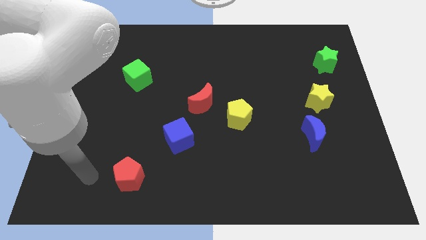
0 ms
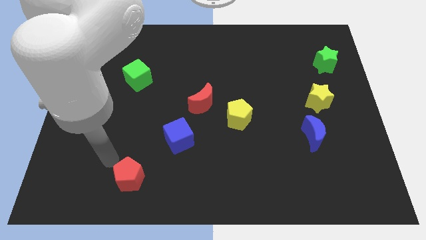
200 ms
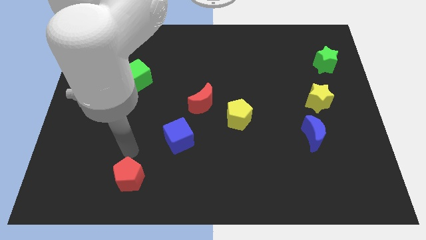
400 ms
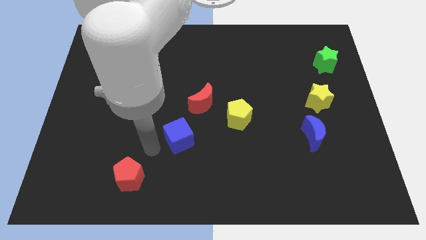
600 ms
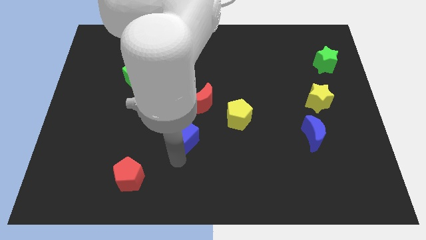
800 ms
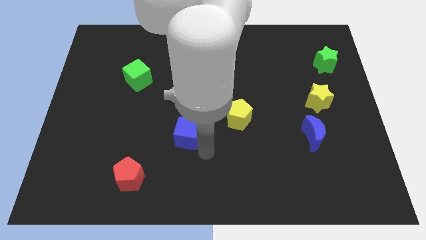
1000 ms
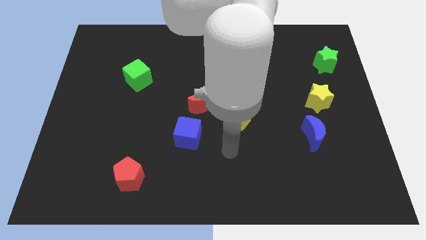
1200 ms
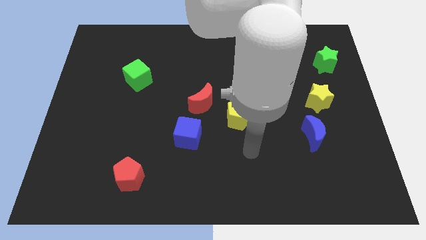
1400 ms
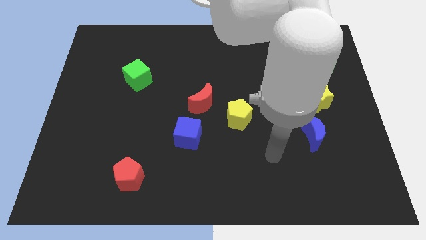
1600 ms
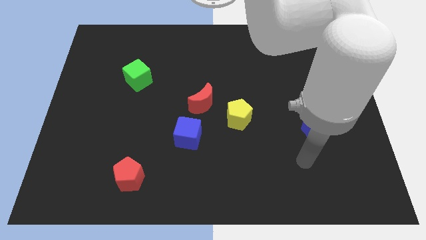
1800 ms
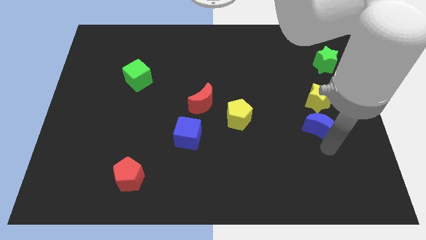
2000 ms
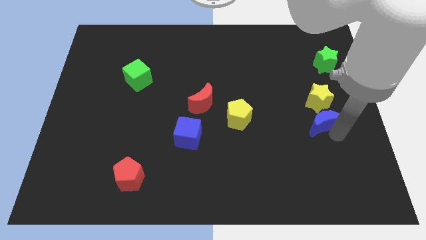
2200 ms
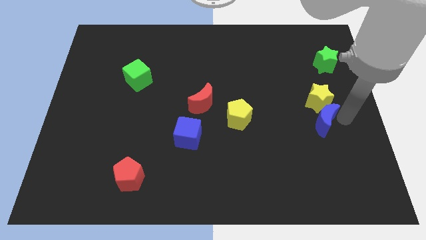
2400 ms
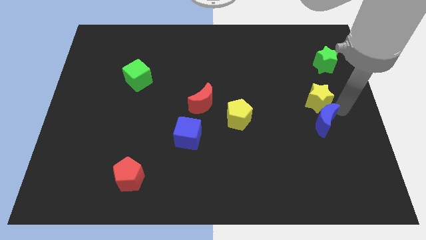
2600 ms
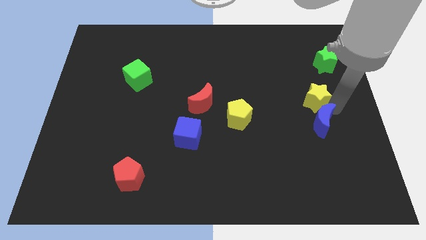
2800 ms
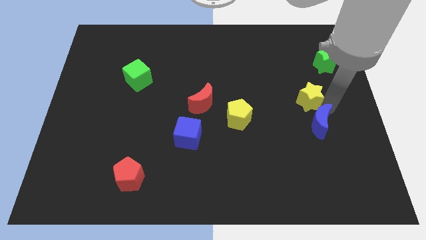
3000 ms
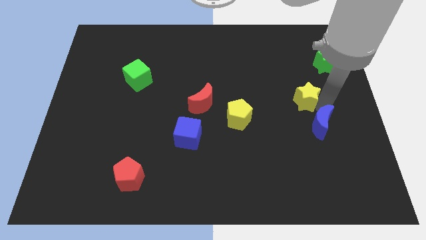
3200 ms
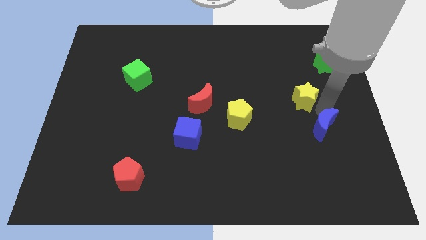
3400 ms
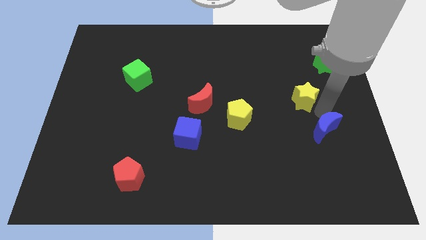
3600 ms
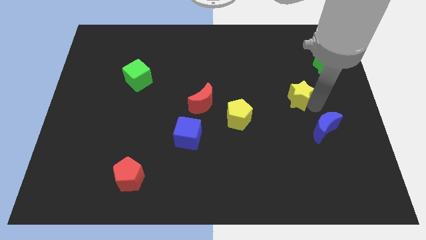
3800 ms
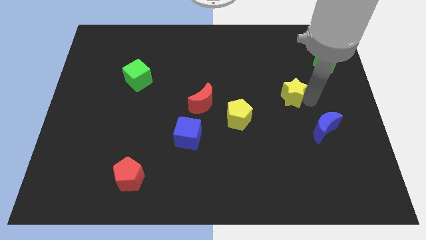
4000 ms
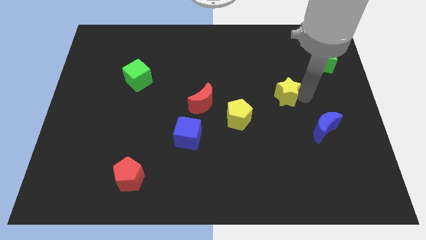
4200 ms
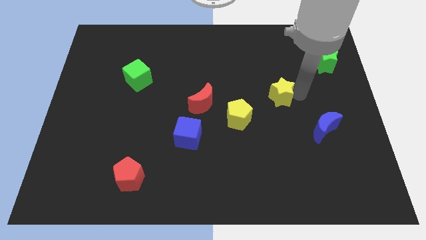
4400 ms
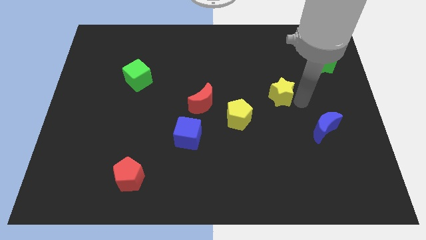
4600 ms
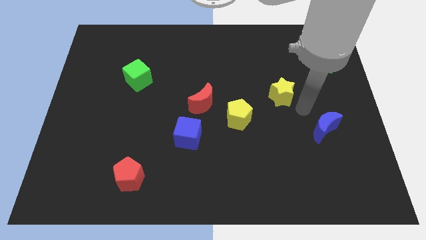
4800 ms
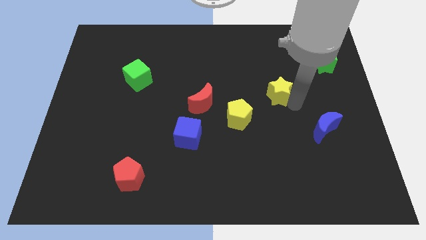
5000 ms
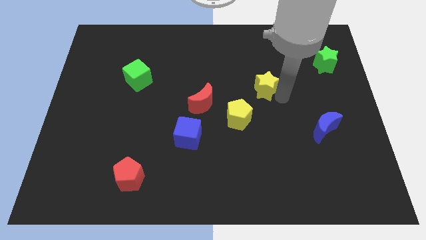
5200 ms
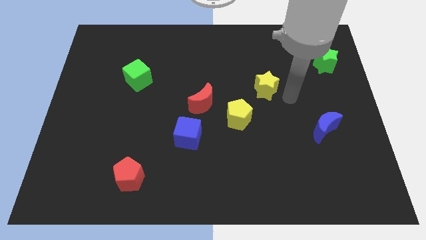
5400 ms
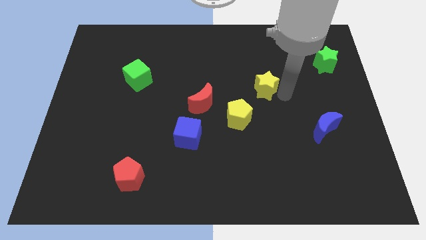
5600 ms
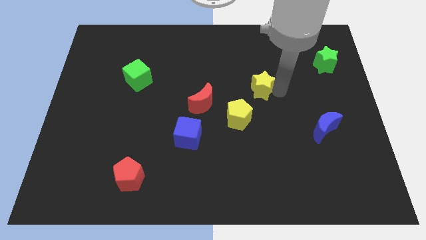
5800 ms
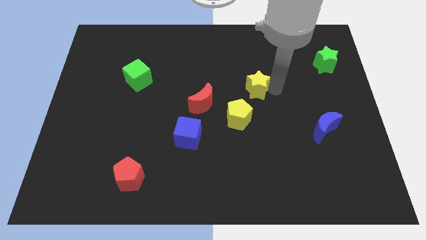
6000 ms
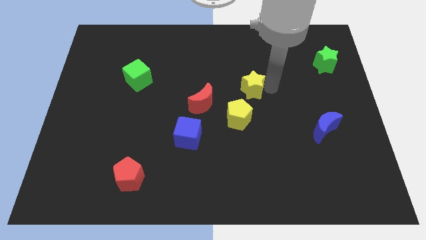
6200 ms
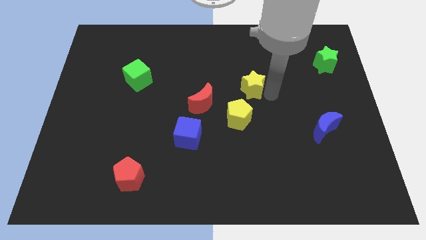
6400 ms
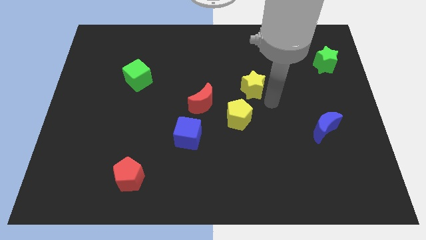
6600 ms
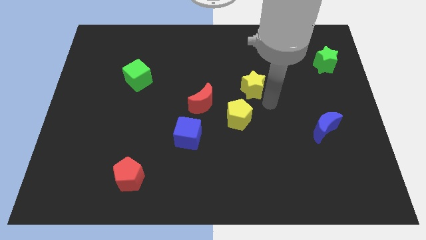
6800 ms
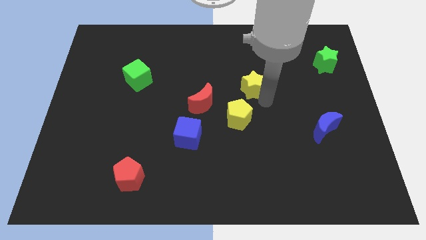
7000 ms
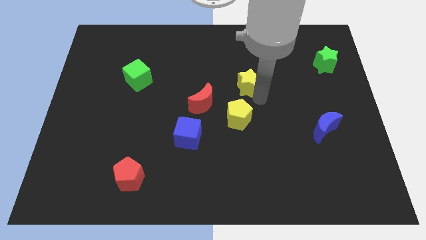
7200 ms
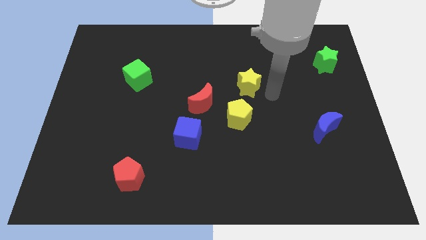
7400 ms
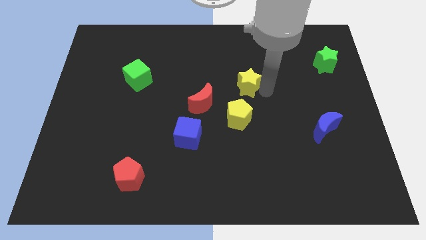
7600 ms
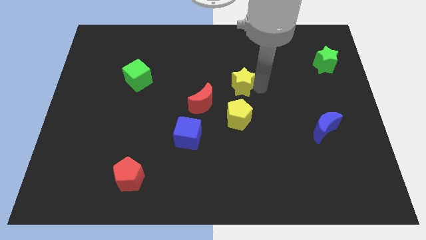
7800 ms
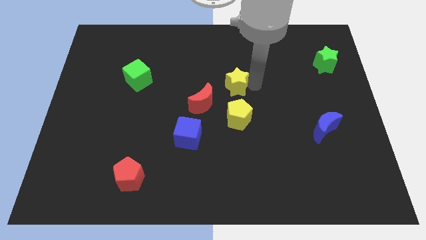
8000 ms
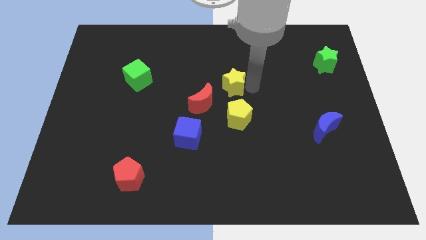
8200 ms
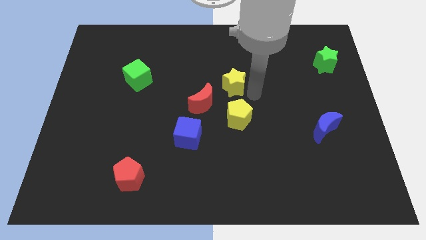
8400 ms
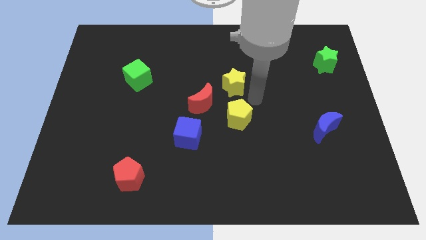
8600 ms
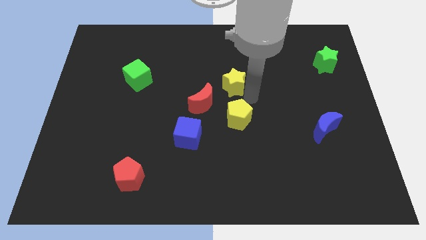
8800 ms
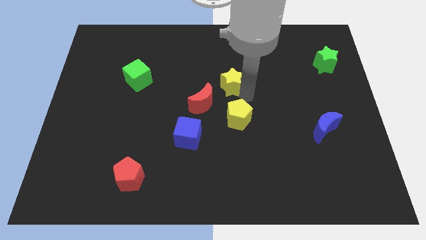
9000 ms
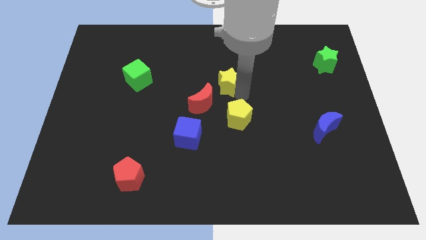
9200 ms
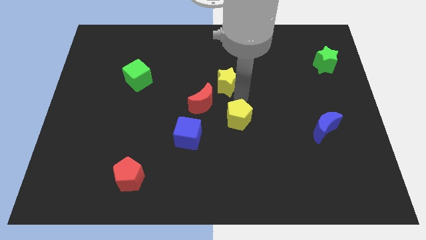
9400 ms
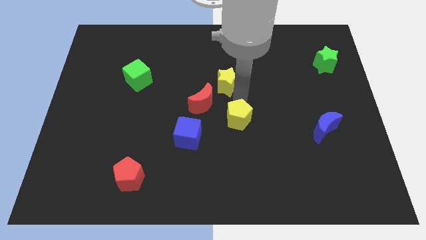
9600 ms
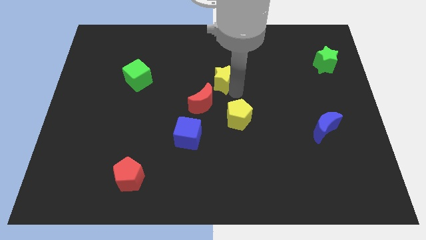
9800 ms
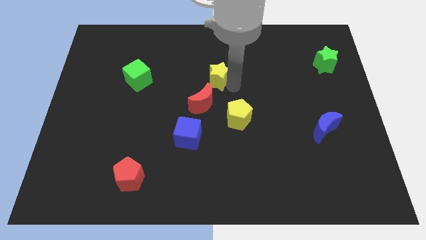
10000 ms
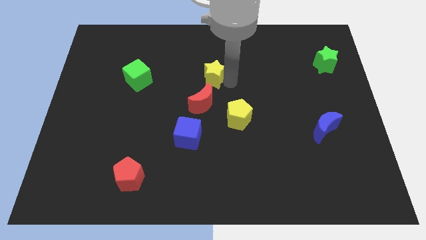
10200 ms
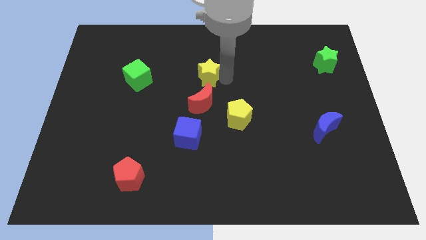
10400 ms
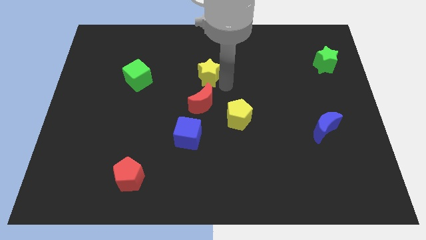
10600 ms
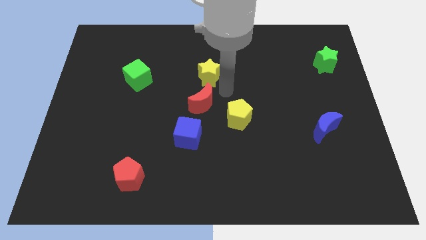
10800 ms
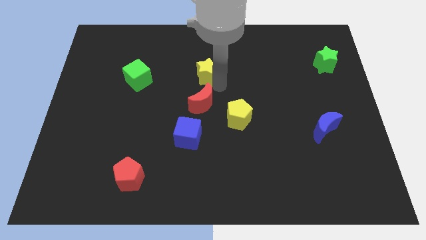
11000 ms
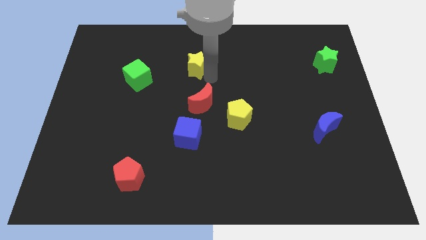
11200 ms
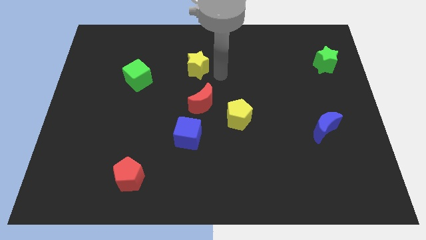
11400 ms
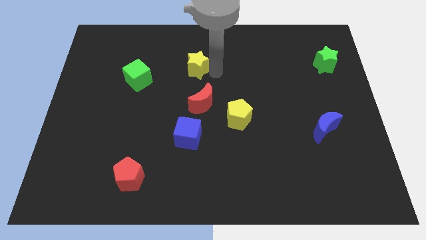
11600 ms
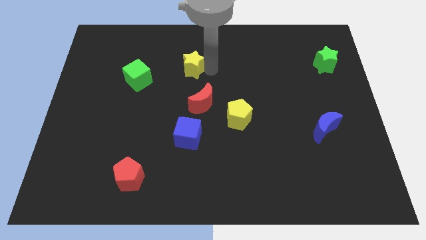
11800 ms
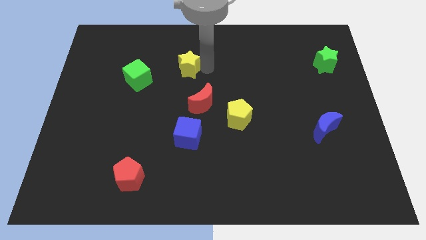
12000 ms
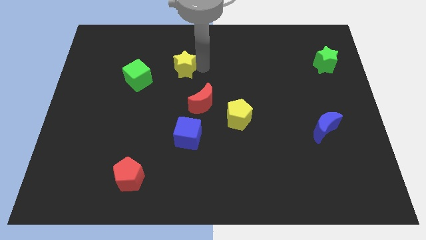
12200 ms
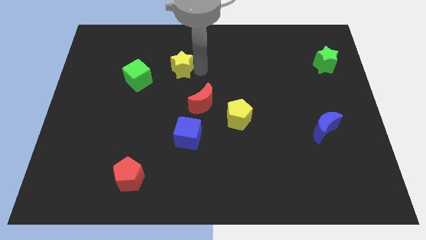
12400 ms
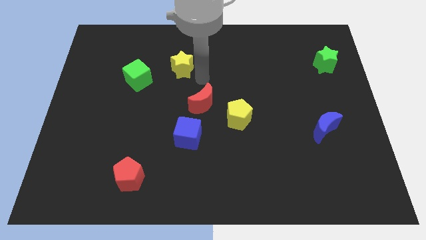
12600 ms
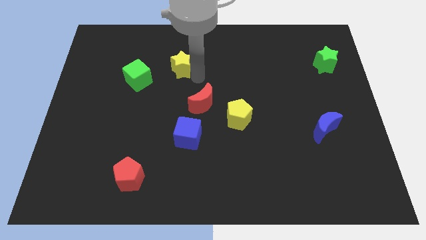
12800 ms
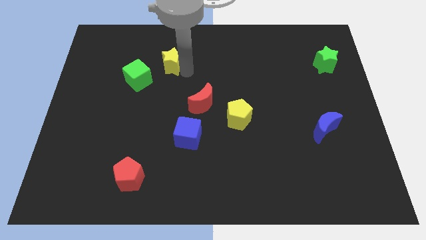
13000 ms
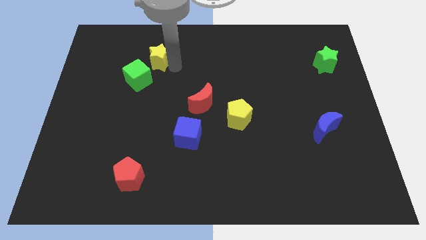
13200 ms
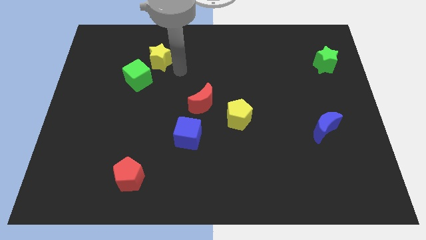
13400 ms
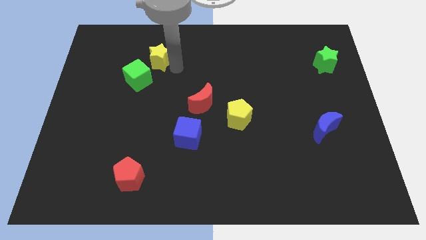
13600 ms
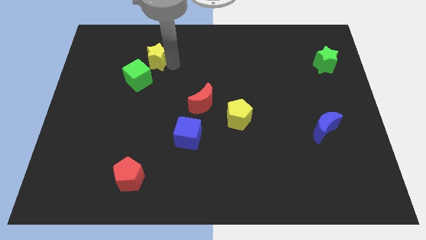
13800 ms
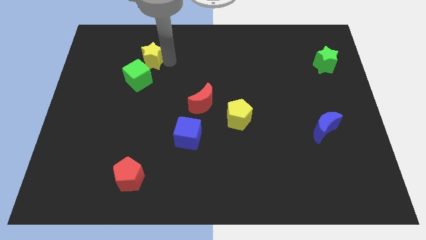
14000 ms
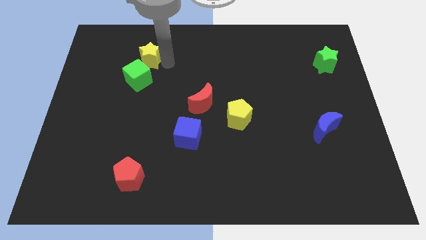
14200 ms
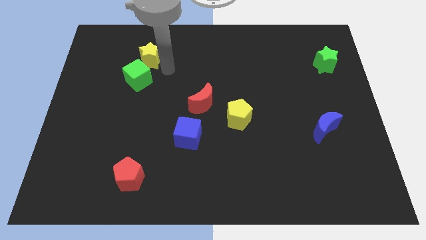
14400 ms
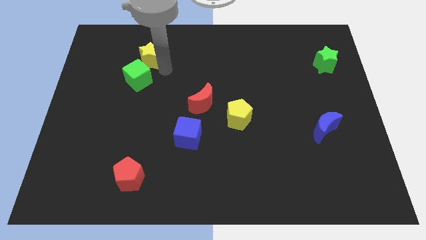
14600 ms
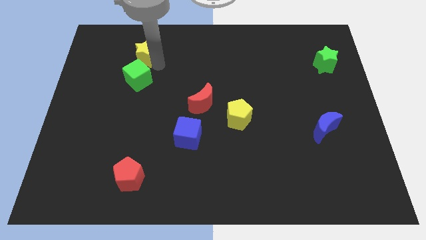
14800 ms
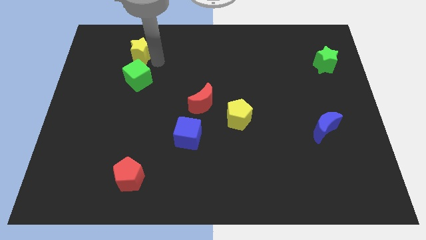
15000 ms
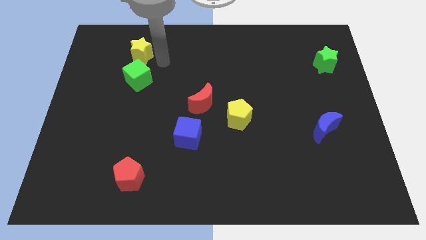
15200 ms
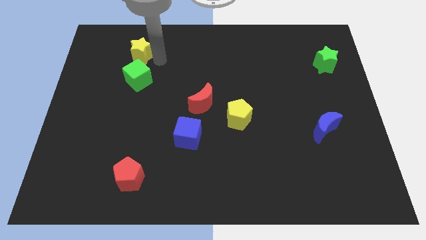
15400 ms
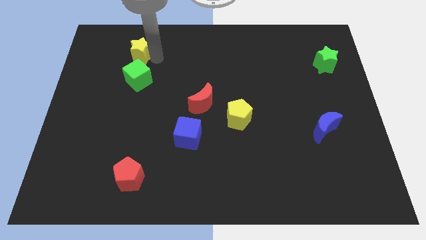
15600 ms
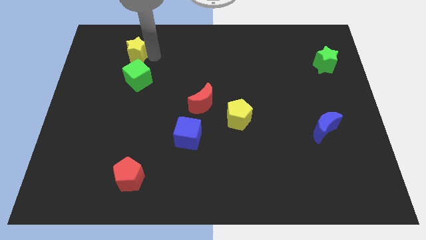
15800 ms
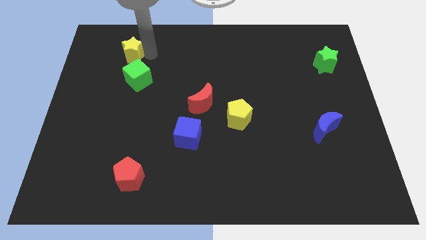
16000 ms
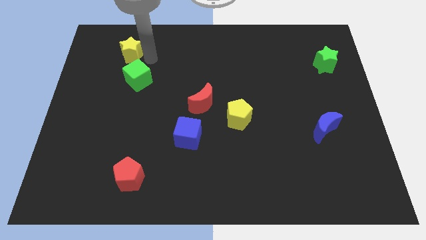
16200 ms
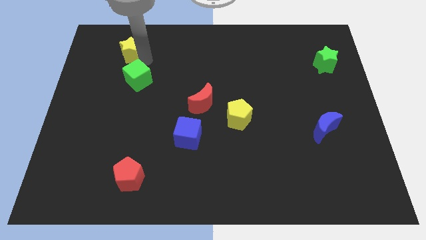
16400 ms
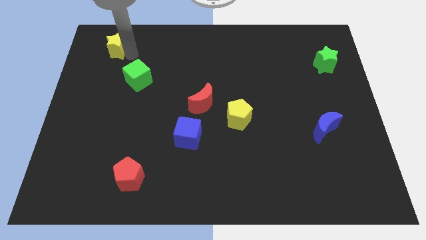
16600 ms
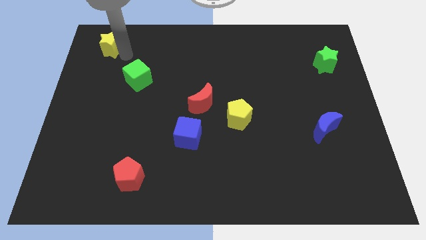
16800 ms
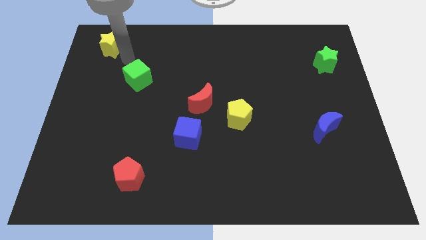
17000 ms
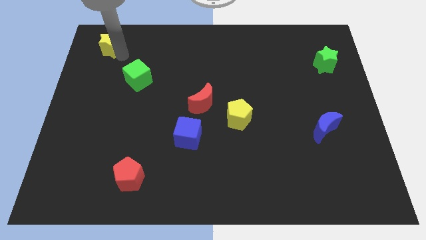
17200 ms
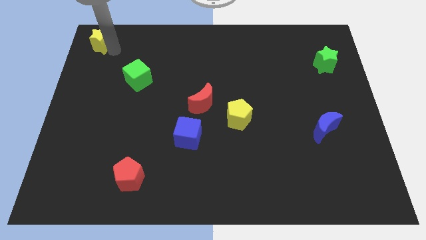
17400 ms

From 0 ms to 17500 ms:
slide the yellow star to the top left
